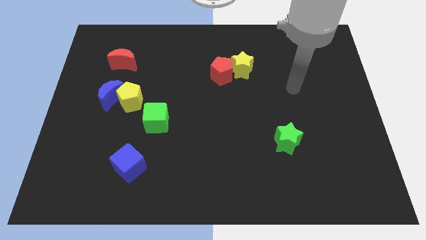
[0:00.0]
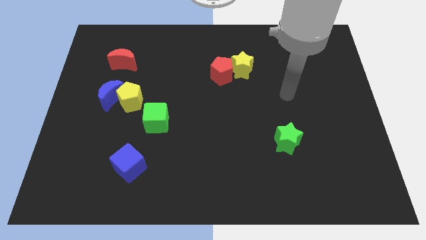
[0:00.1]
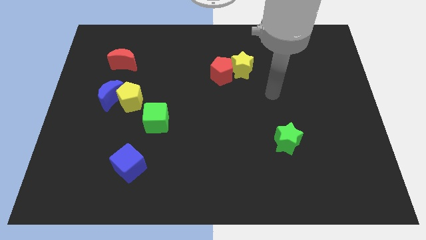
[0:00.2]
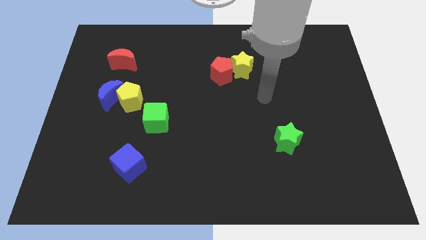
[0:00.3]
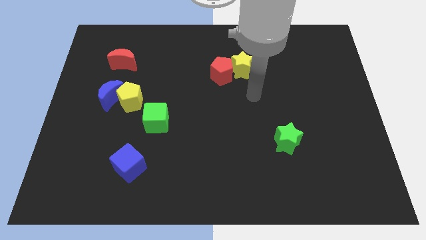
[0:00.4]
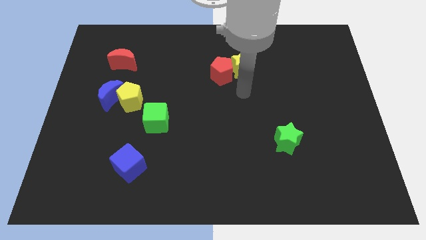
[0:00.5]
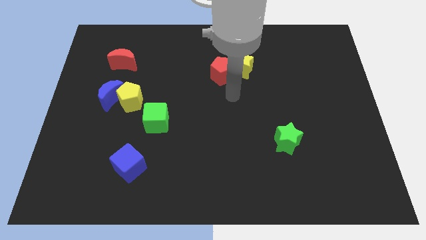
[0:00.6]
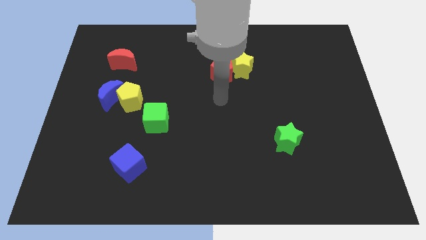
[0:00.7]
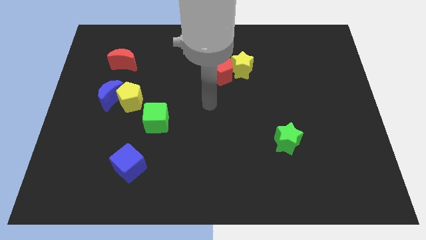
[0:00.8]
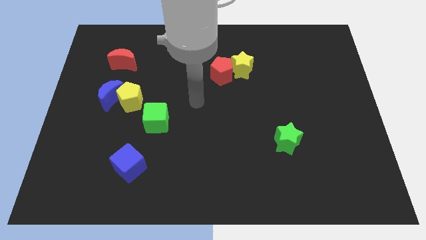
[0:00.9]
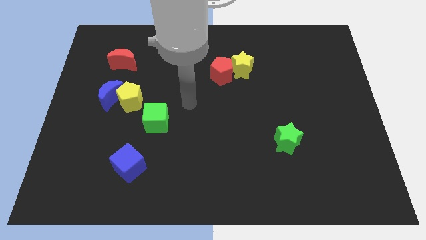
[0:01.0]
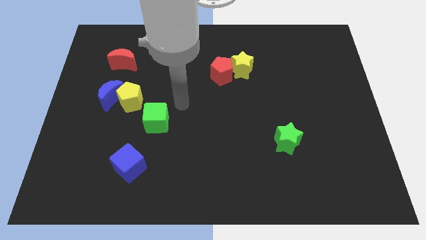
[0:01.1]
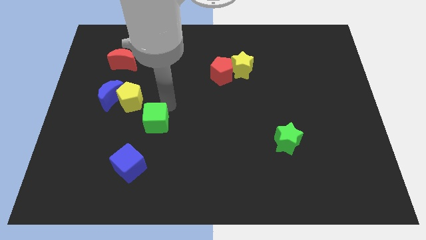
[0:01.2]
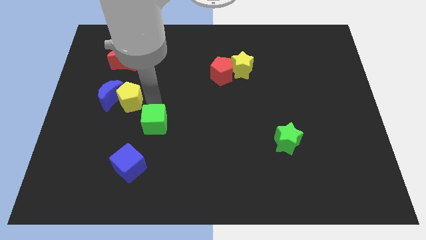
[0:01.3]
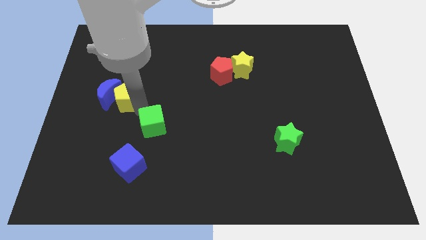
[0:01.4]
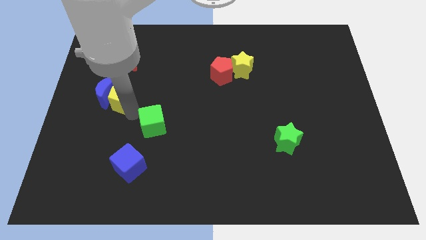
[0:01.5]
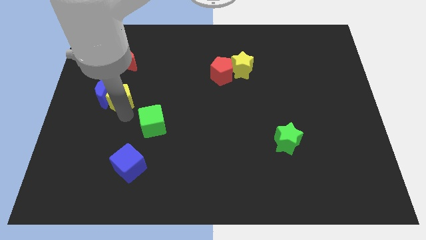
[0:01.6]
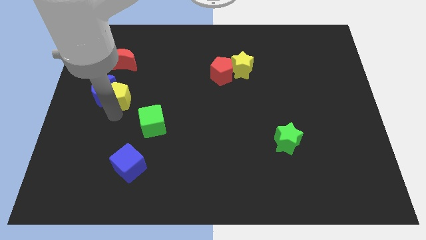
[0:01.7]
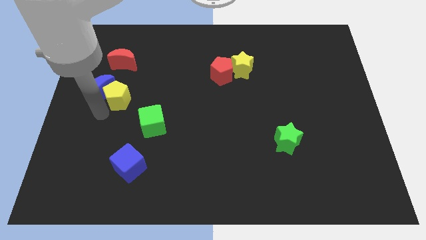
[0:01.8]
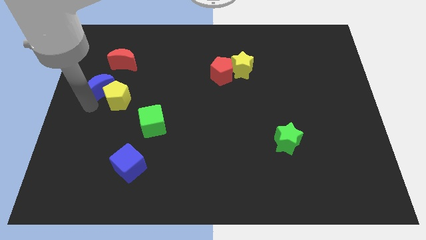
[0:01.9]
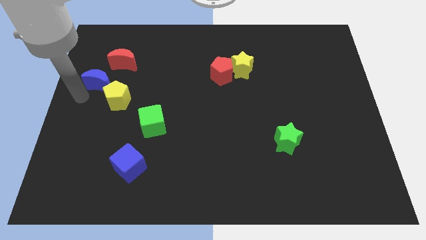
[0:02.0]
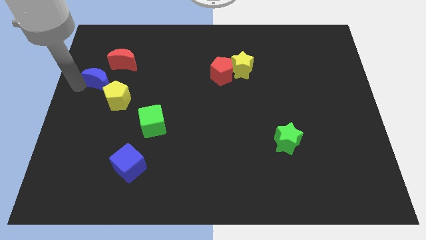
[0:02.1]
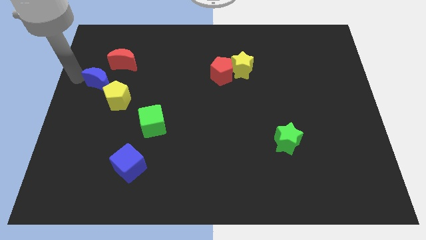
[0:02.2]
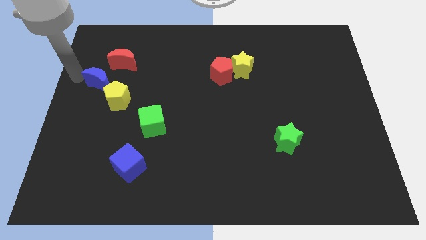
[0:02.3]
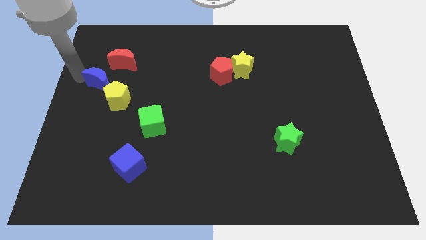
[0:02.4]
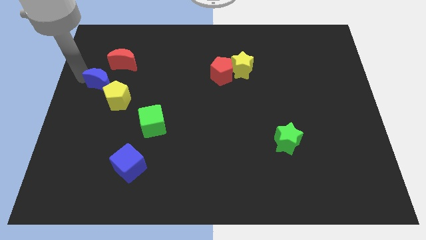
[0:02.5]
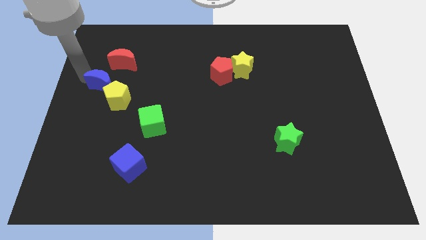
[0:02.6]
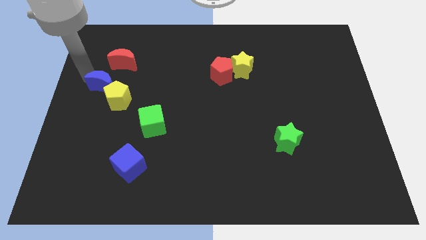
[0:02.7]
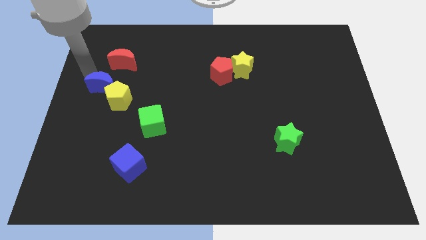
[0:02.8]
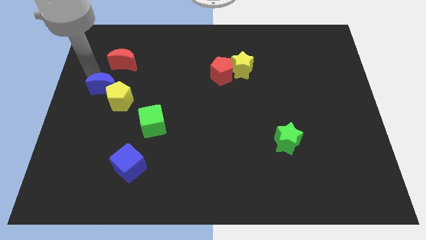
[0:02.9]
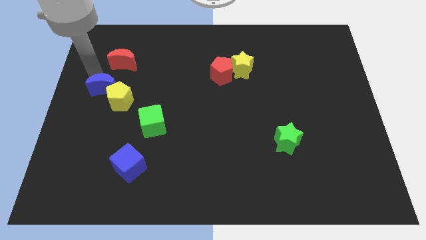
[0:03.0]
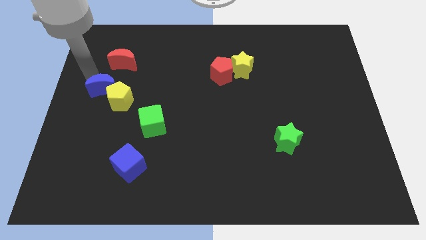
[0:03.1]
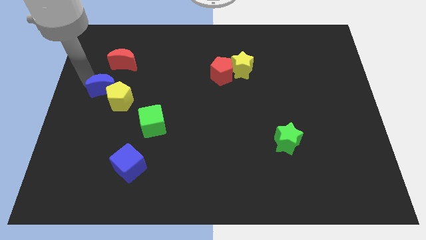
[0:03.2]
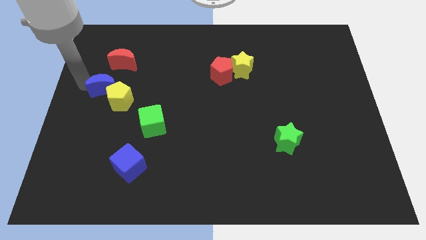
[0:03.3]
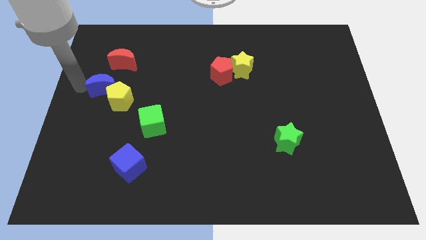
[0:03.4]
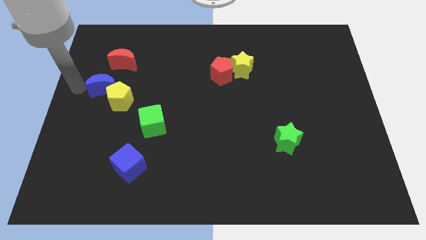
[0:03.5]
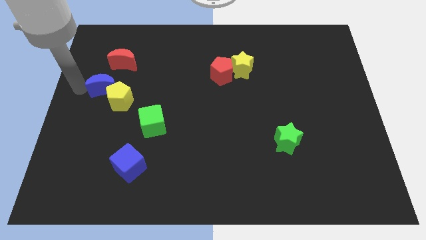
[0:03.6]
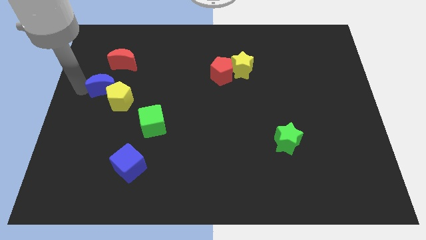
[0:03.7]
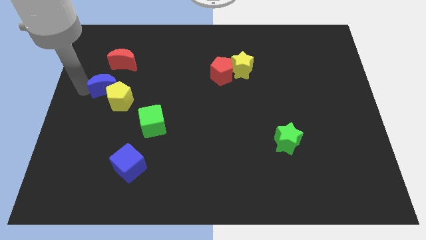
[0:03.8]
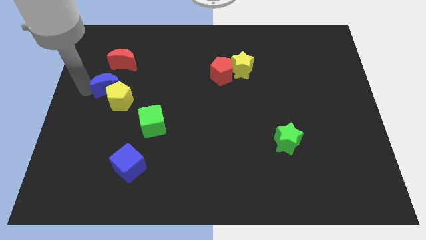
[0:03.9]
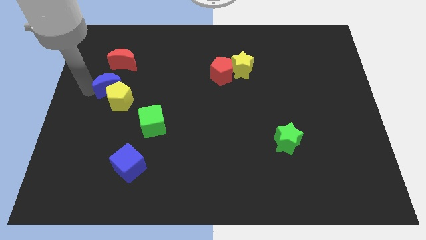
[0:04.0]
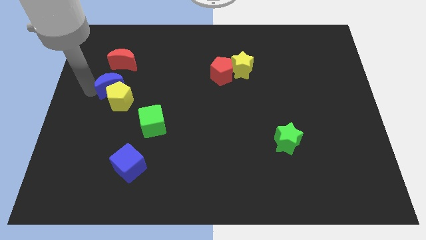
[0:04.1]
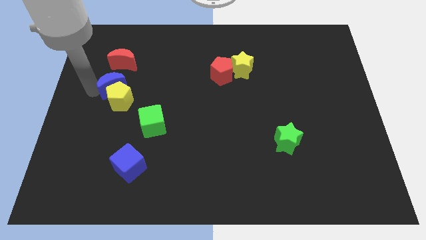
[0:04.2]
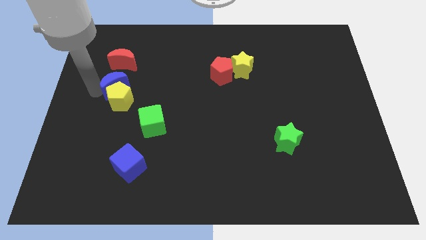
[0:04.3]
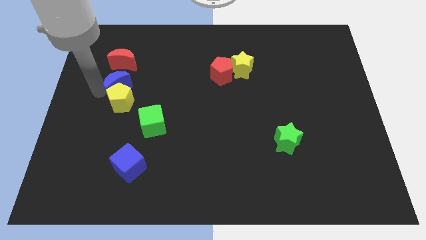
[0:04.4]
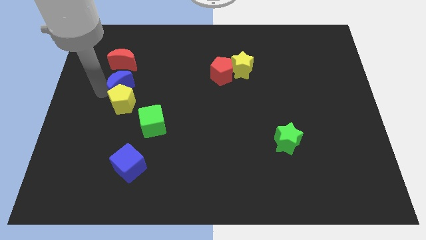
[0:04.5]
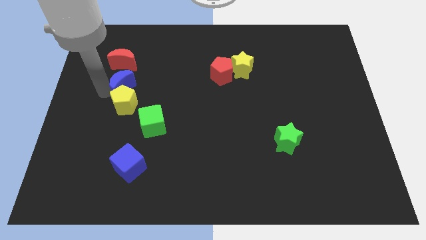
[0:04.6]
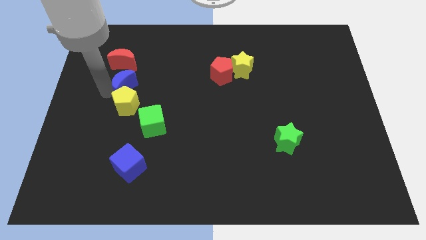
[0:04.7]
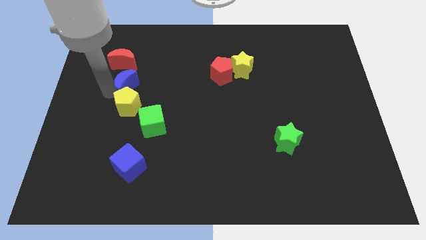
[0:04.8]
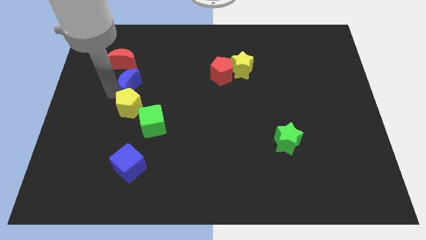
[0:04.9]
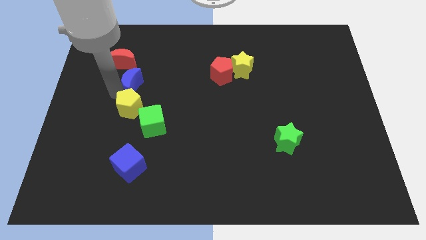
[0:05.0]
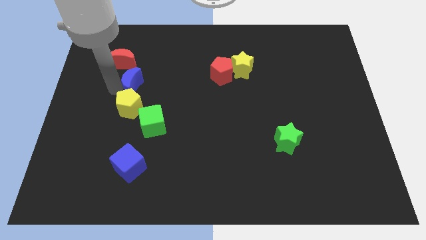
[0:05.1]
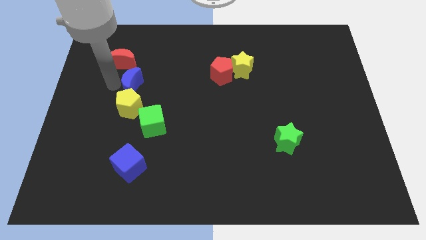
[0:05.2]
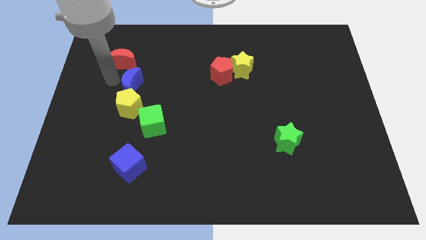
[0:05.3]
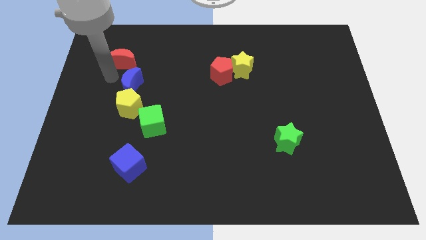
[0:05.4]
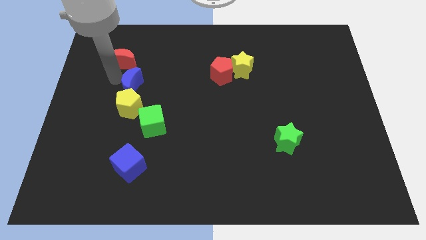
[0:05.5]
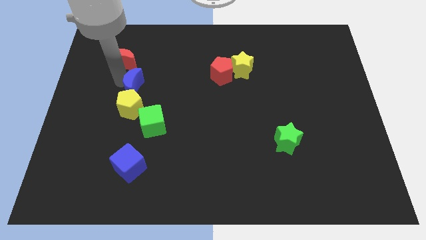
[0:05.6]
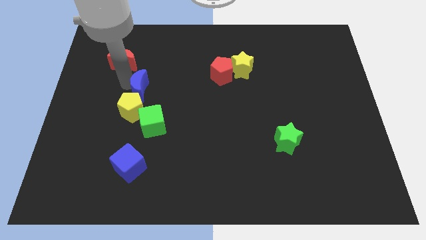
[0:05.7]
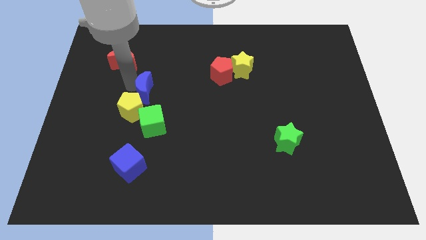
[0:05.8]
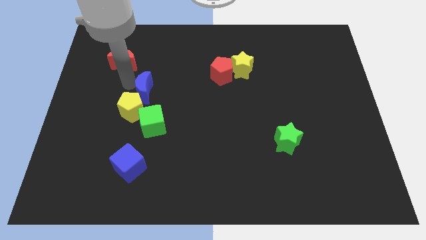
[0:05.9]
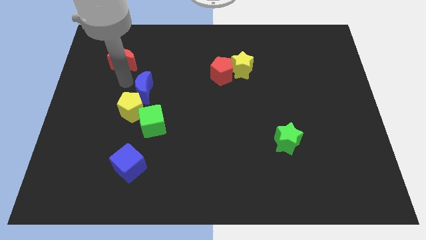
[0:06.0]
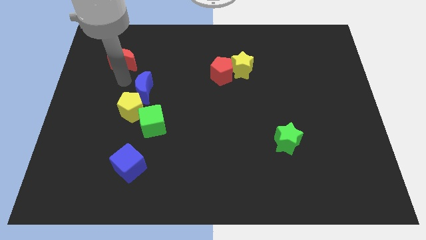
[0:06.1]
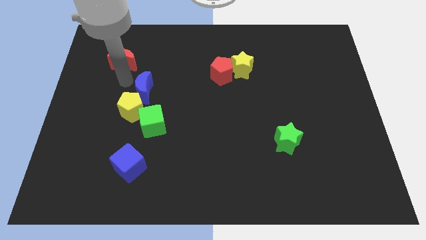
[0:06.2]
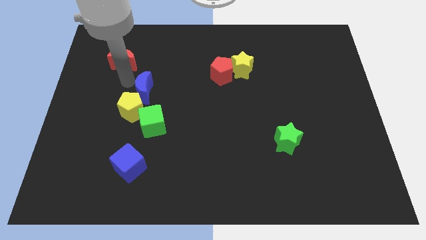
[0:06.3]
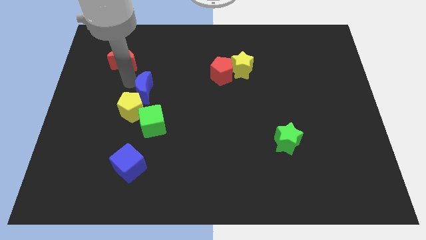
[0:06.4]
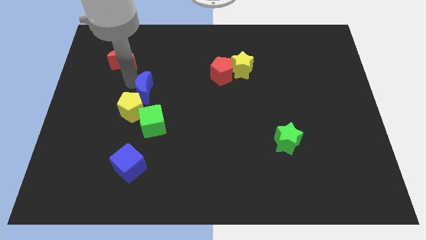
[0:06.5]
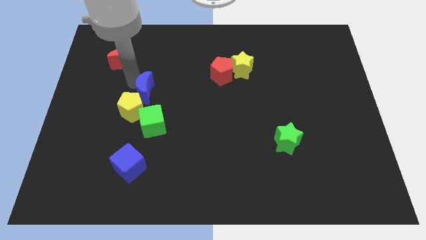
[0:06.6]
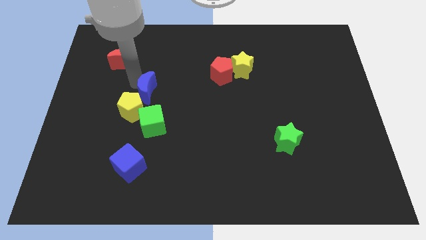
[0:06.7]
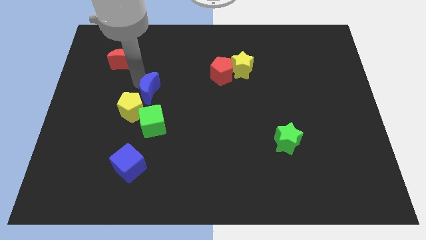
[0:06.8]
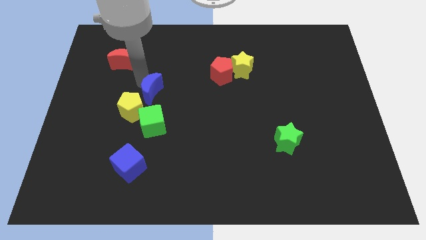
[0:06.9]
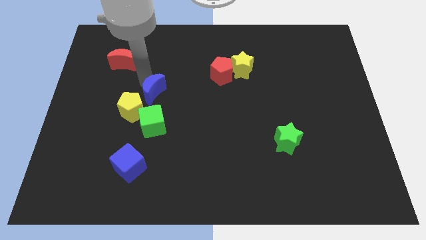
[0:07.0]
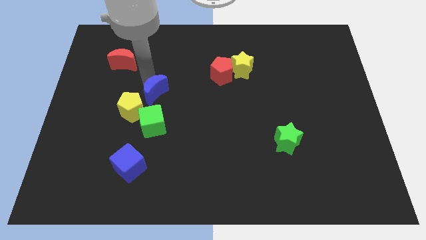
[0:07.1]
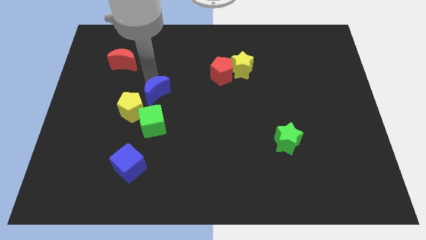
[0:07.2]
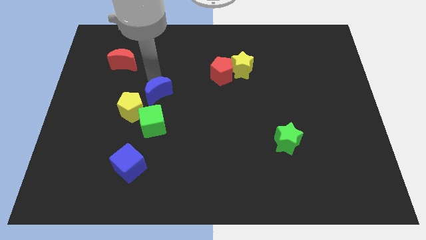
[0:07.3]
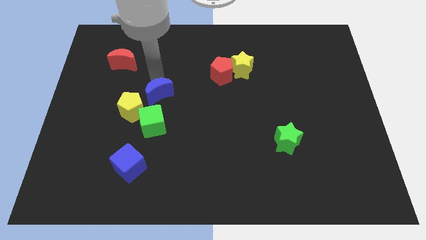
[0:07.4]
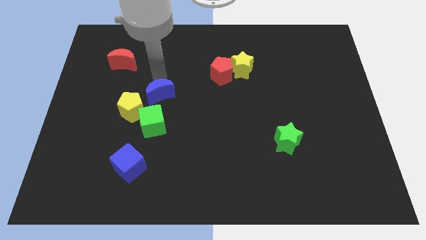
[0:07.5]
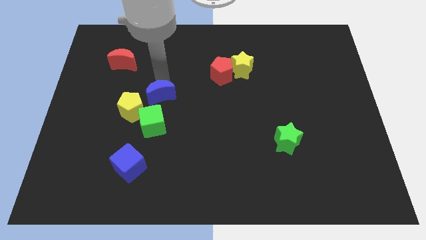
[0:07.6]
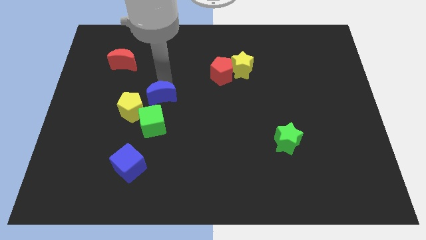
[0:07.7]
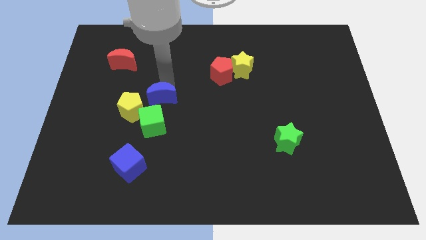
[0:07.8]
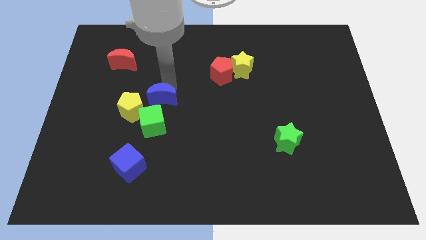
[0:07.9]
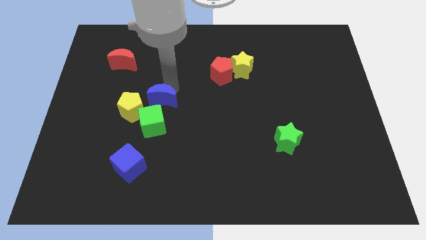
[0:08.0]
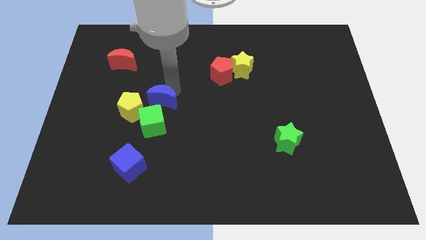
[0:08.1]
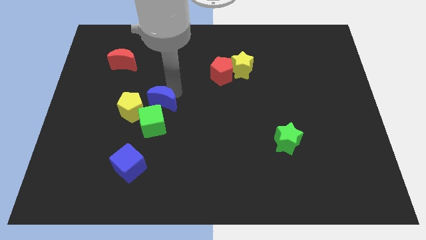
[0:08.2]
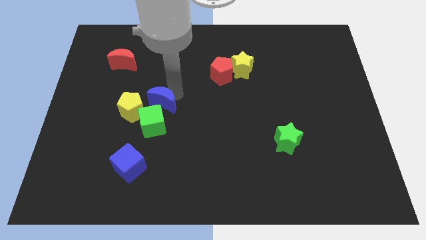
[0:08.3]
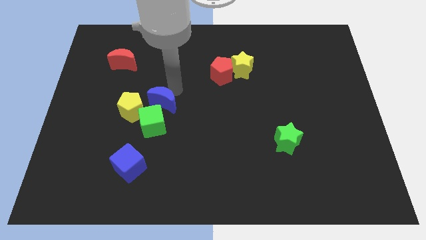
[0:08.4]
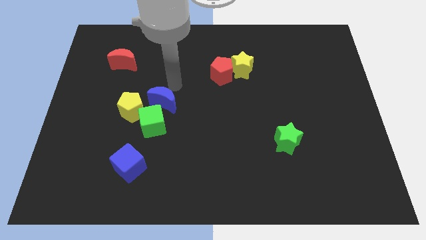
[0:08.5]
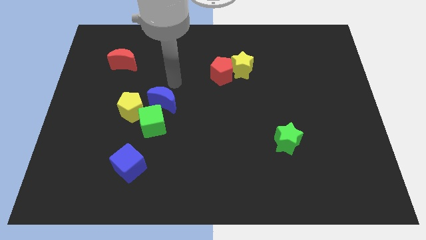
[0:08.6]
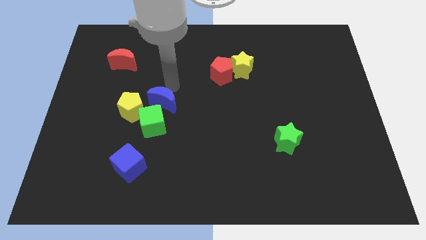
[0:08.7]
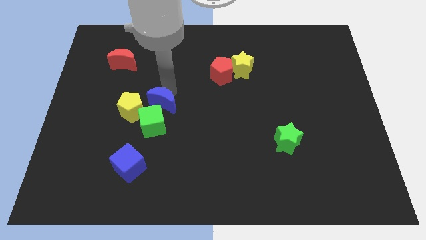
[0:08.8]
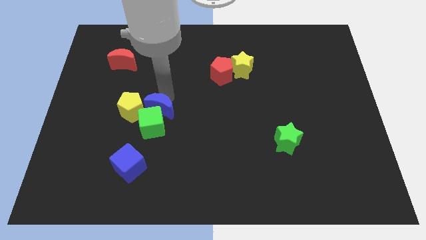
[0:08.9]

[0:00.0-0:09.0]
slide the blue moon towards the green cube
